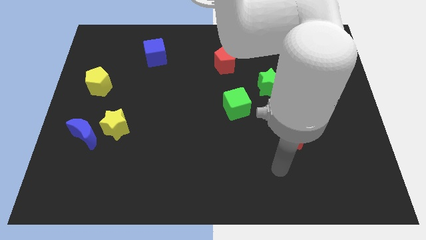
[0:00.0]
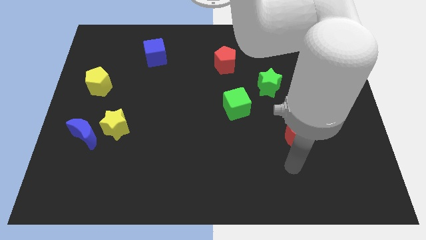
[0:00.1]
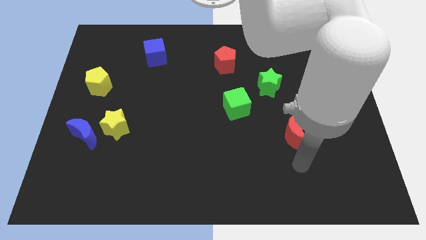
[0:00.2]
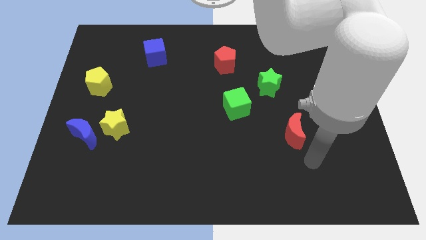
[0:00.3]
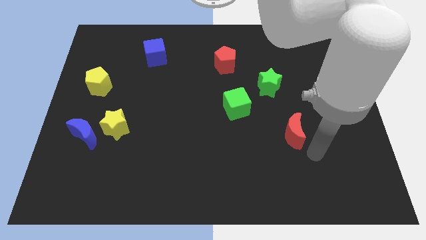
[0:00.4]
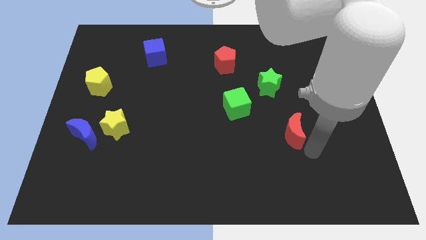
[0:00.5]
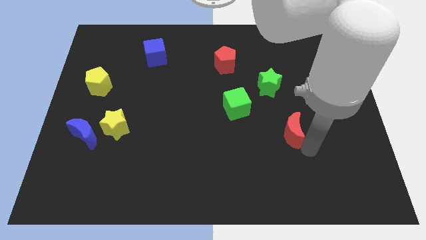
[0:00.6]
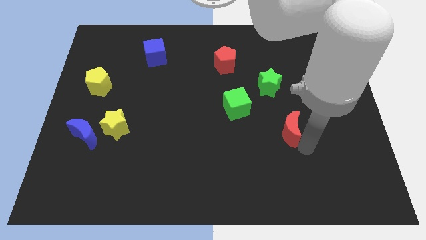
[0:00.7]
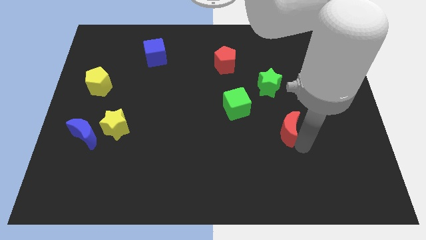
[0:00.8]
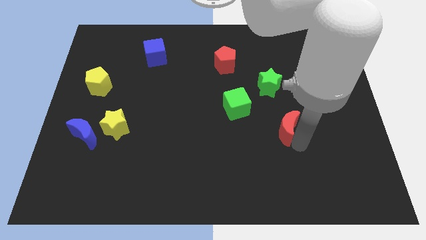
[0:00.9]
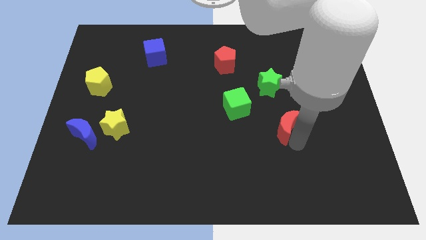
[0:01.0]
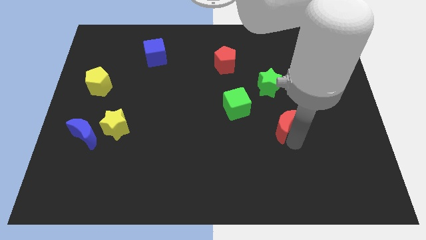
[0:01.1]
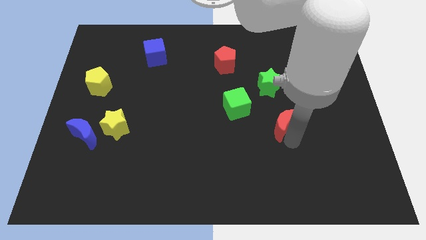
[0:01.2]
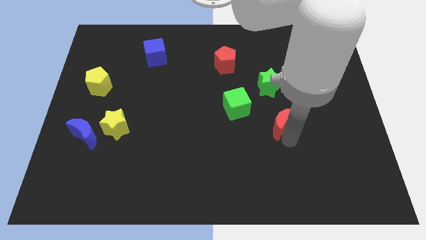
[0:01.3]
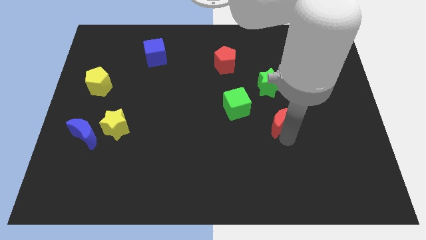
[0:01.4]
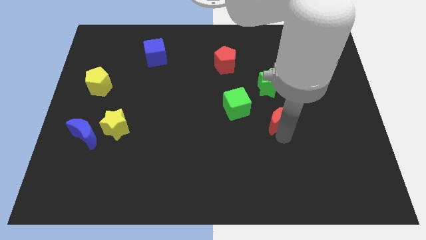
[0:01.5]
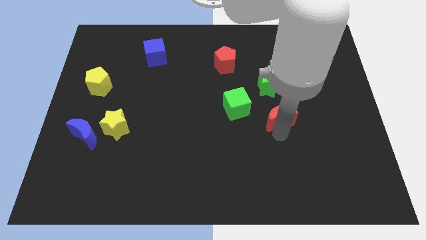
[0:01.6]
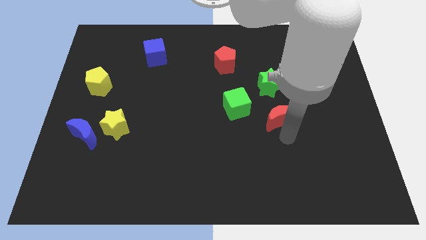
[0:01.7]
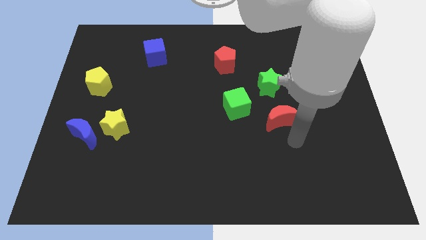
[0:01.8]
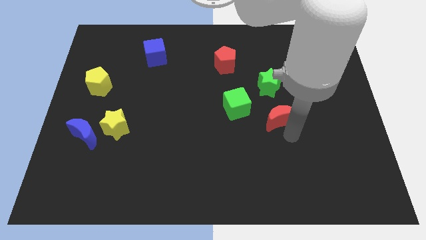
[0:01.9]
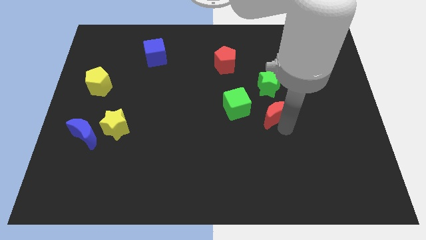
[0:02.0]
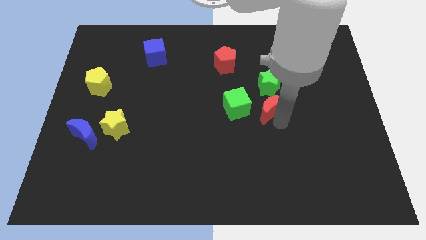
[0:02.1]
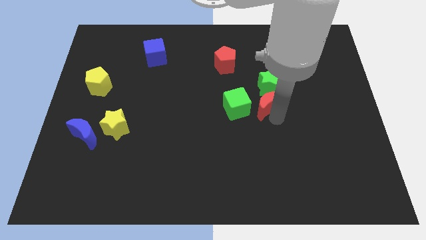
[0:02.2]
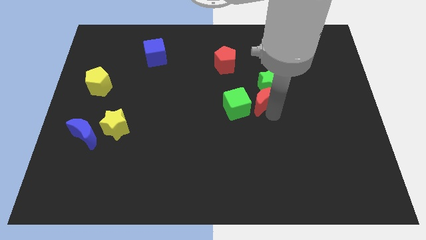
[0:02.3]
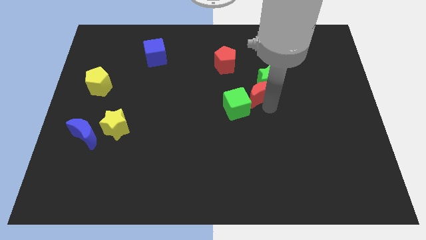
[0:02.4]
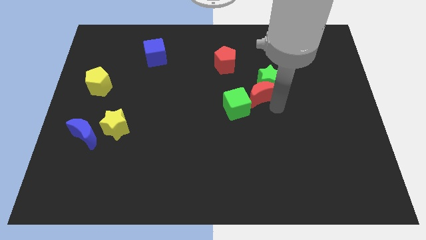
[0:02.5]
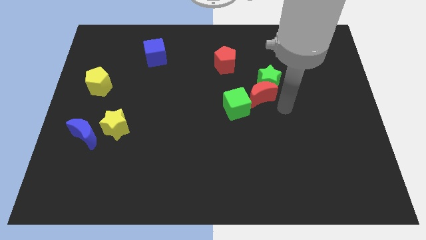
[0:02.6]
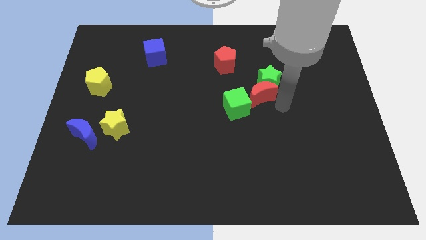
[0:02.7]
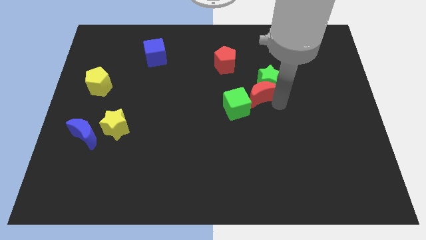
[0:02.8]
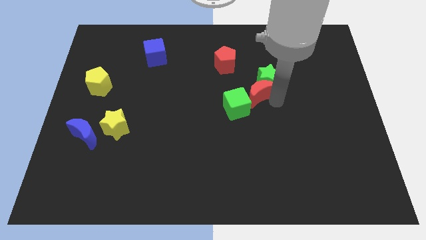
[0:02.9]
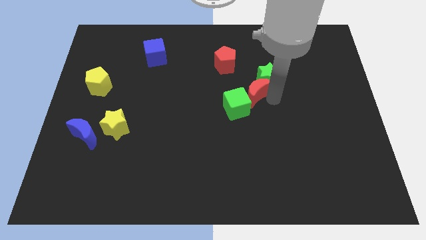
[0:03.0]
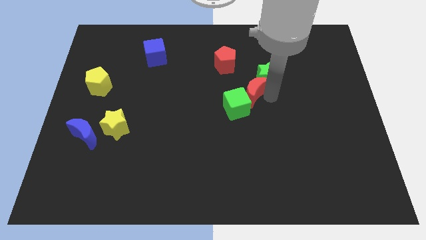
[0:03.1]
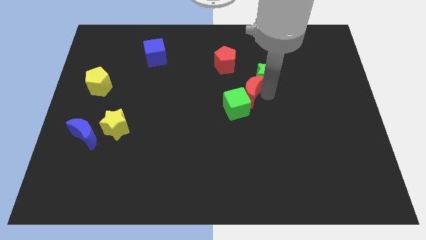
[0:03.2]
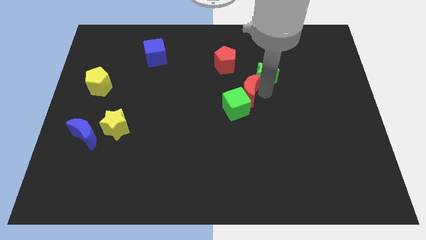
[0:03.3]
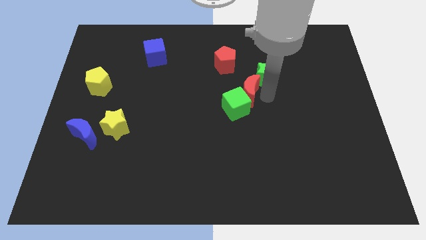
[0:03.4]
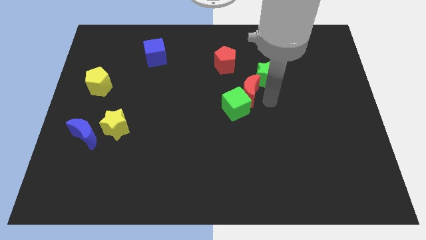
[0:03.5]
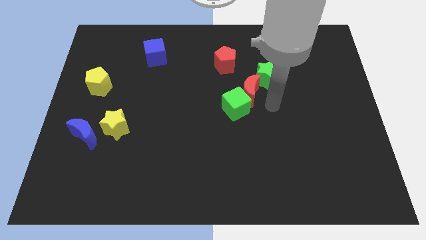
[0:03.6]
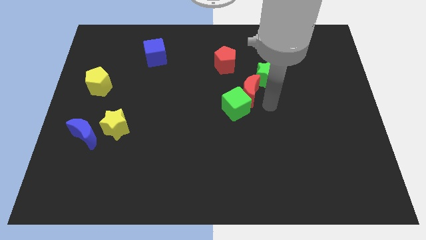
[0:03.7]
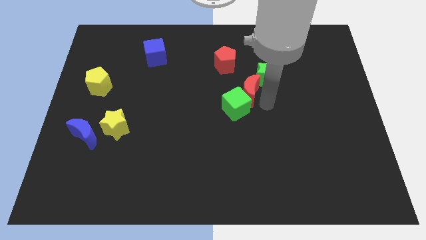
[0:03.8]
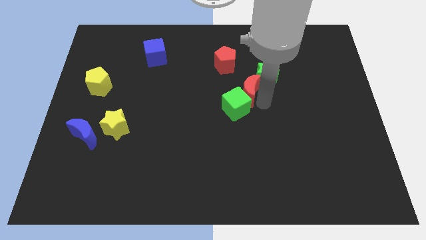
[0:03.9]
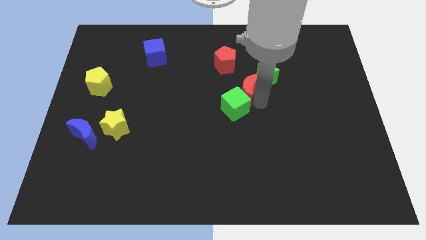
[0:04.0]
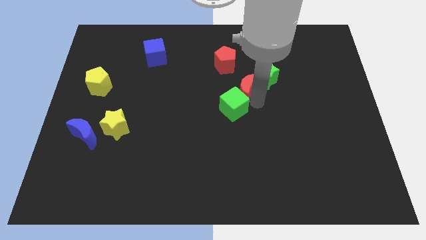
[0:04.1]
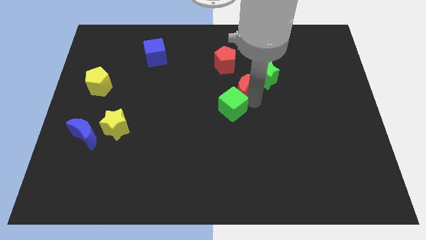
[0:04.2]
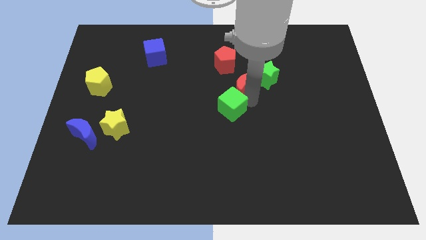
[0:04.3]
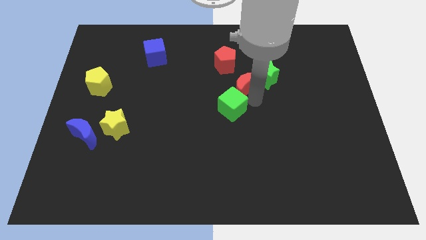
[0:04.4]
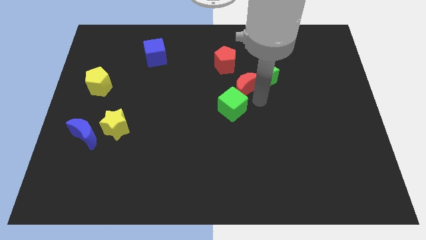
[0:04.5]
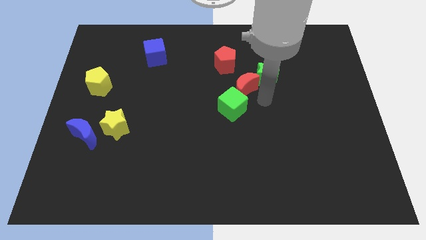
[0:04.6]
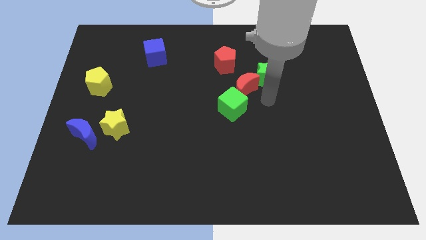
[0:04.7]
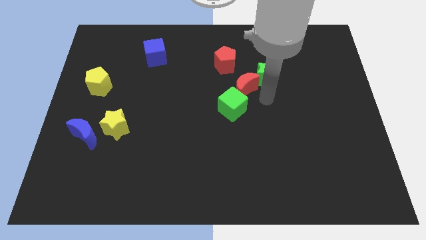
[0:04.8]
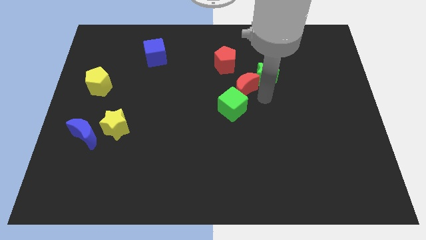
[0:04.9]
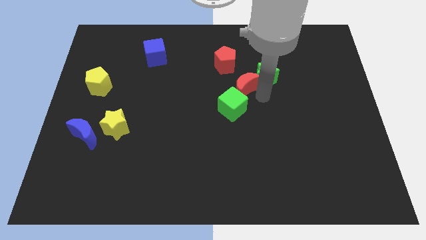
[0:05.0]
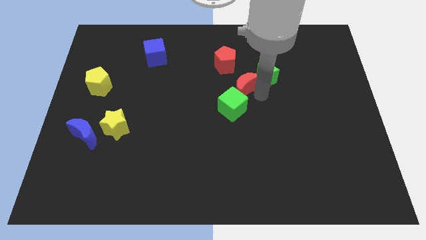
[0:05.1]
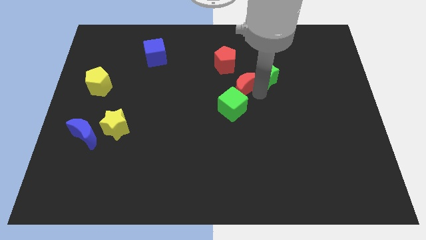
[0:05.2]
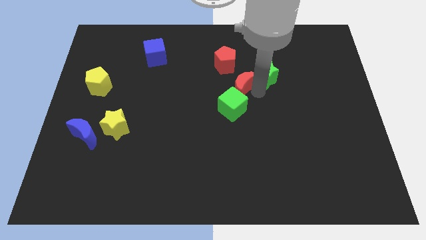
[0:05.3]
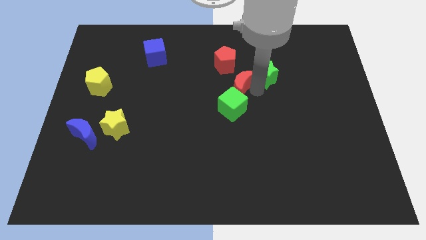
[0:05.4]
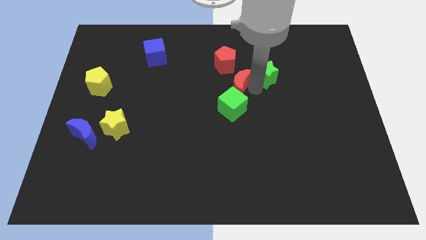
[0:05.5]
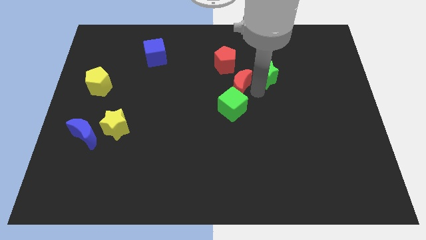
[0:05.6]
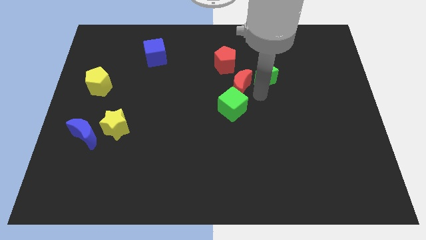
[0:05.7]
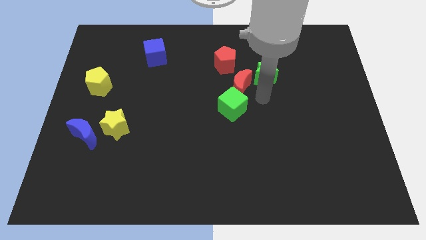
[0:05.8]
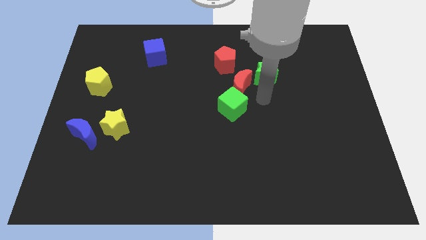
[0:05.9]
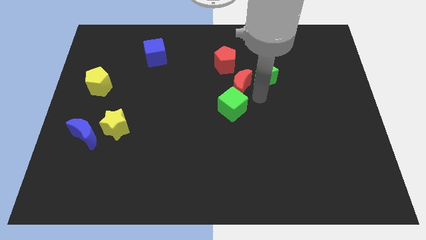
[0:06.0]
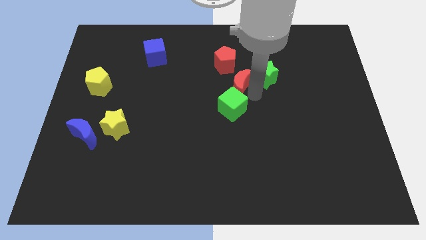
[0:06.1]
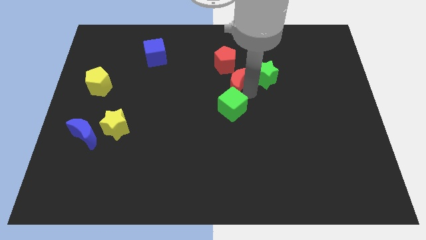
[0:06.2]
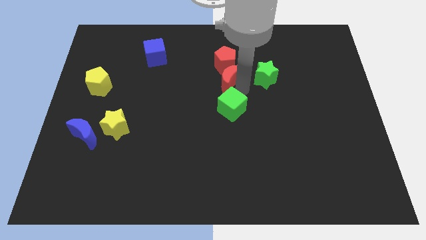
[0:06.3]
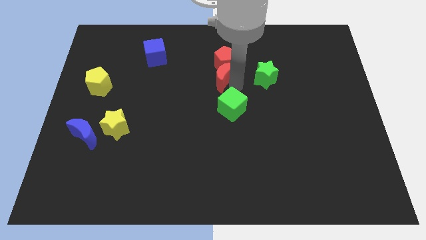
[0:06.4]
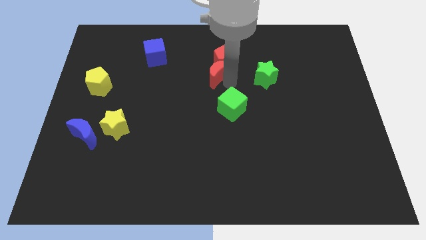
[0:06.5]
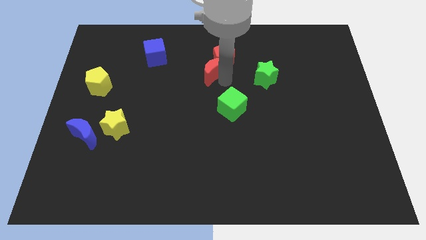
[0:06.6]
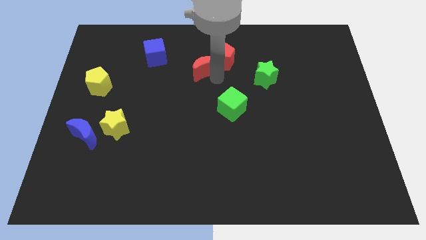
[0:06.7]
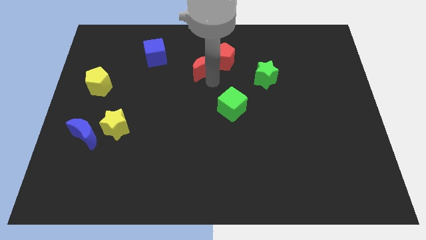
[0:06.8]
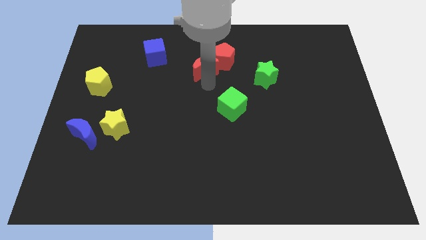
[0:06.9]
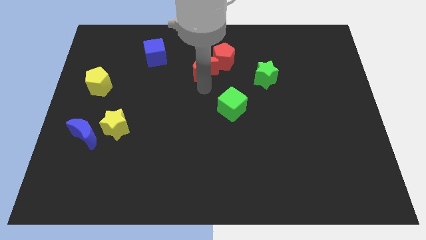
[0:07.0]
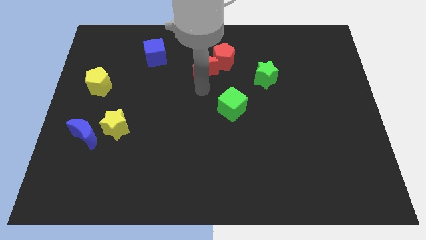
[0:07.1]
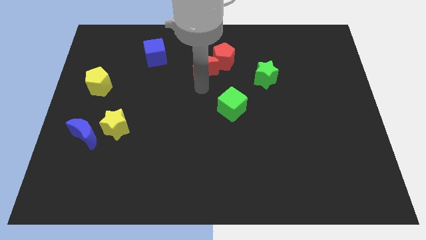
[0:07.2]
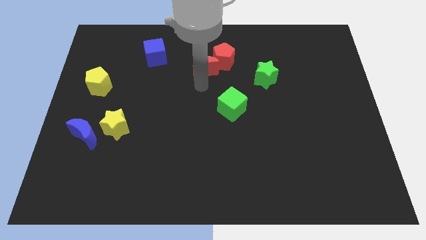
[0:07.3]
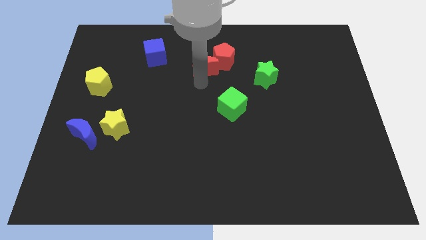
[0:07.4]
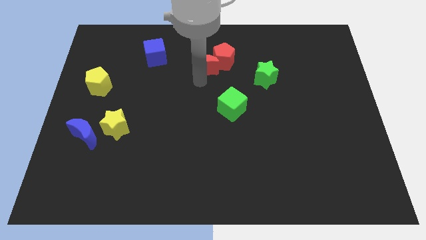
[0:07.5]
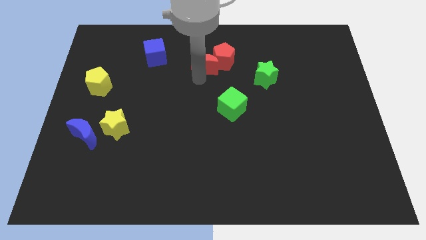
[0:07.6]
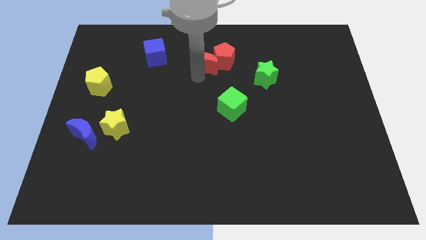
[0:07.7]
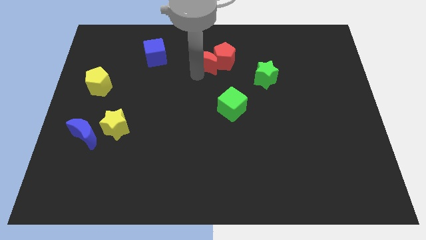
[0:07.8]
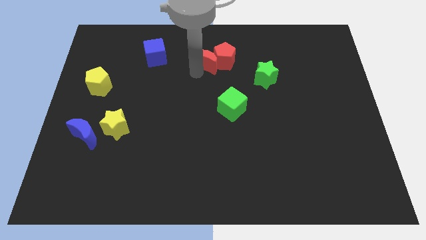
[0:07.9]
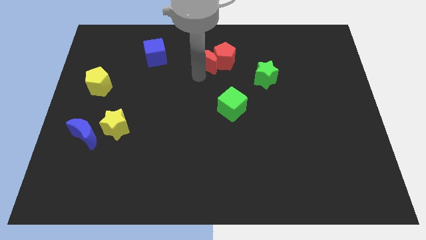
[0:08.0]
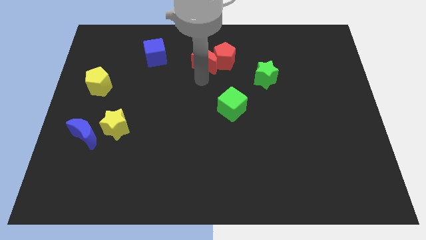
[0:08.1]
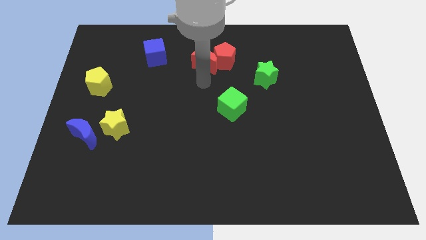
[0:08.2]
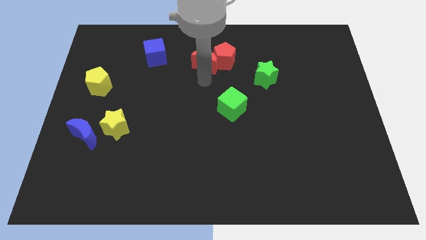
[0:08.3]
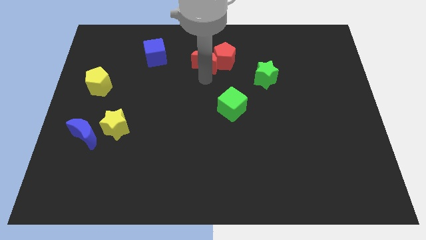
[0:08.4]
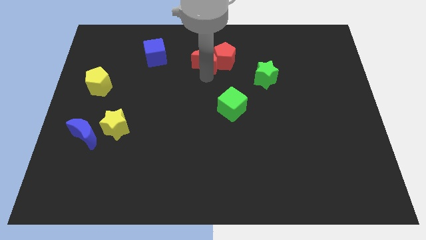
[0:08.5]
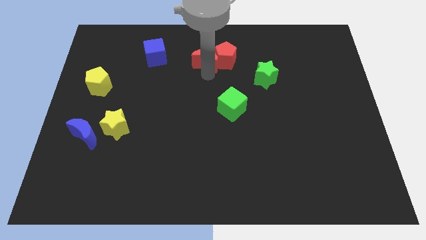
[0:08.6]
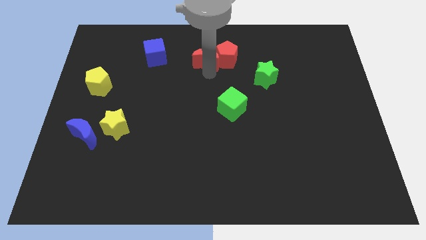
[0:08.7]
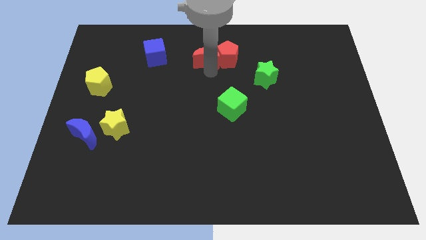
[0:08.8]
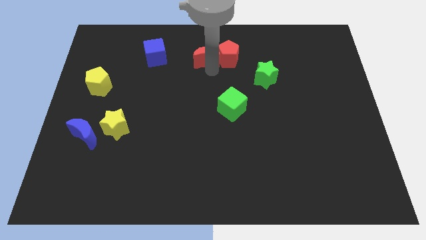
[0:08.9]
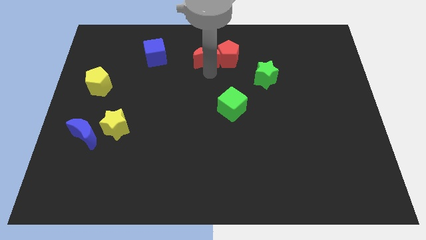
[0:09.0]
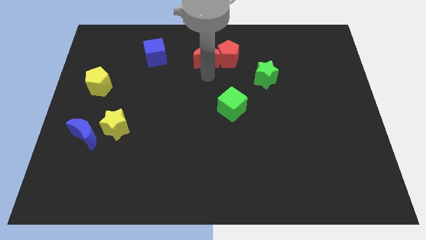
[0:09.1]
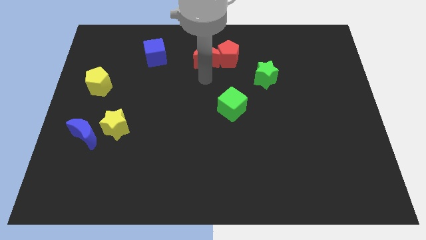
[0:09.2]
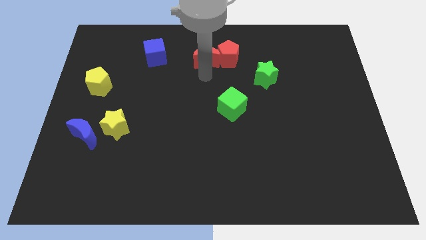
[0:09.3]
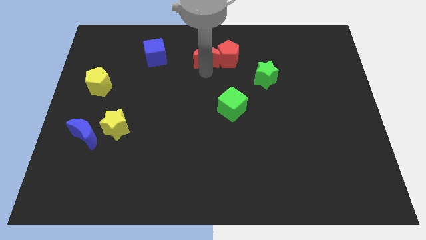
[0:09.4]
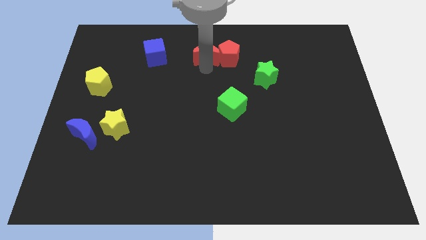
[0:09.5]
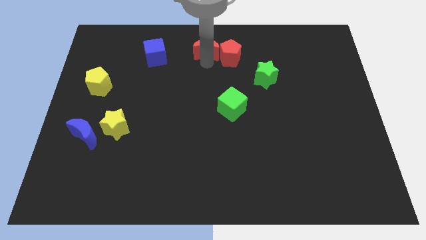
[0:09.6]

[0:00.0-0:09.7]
push the red moon to the top
